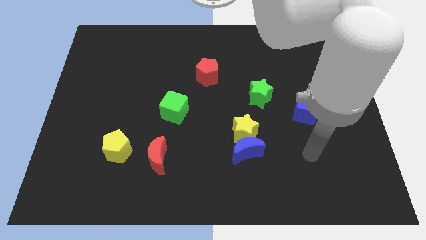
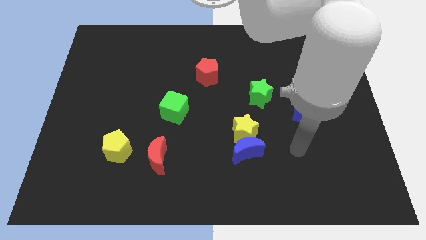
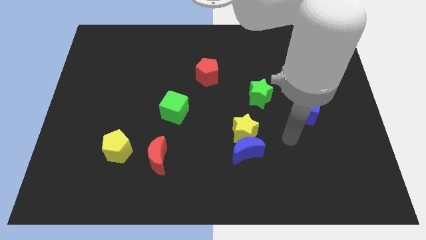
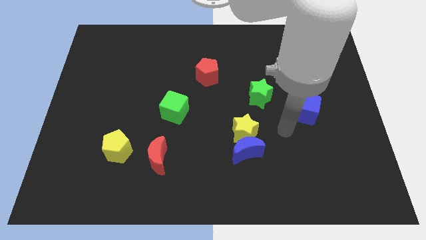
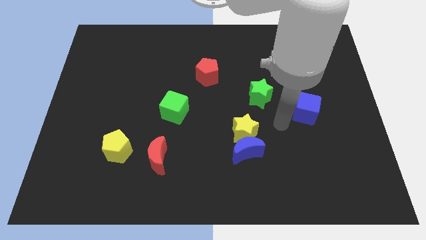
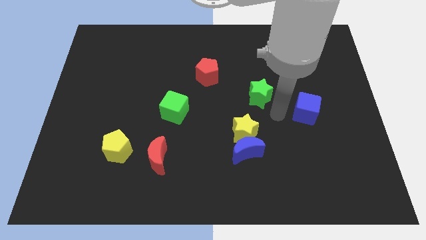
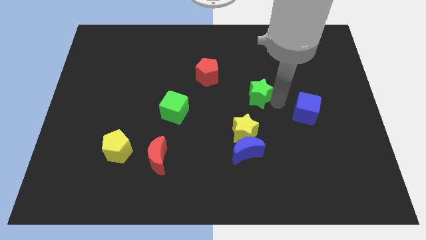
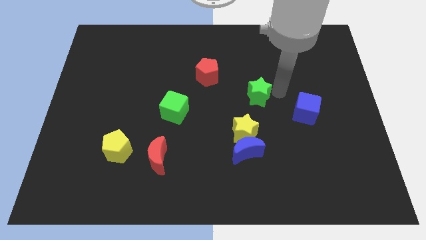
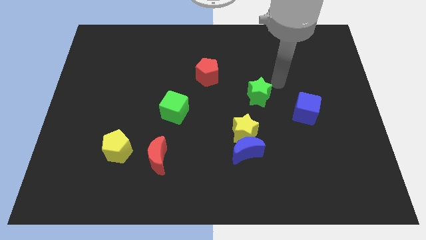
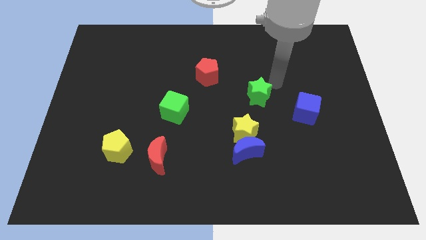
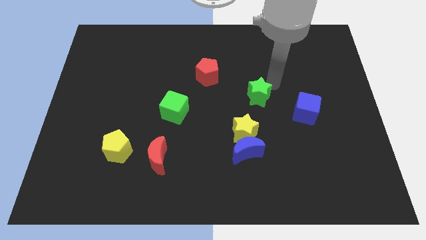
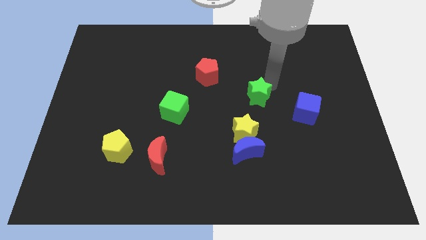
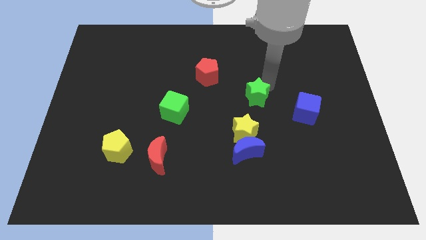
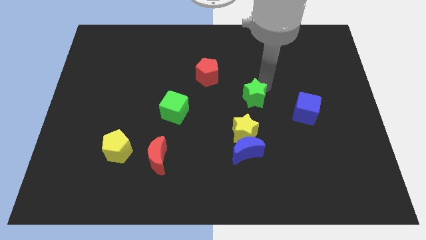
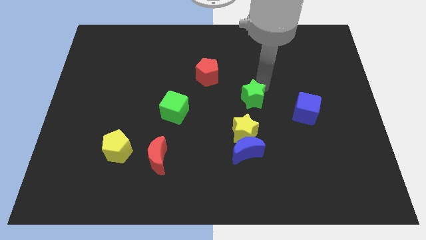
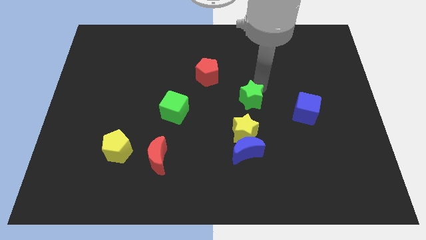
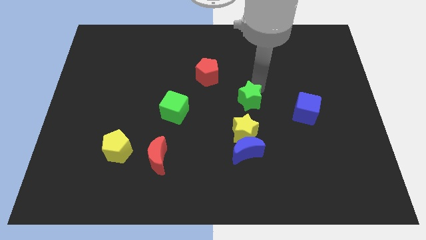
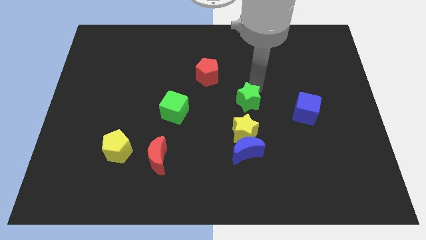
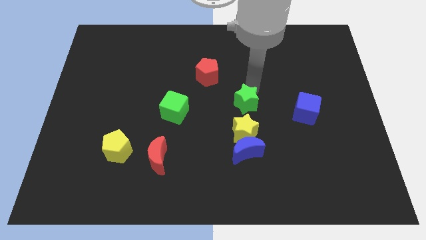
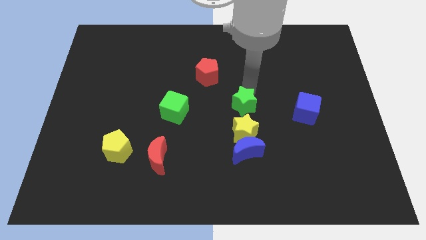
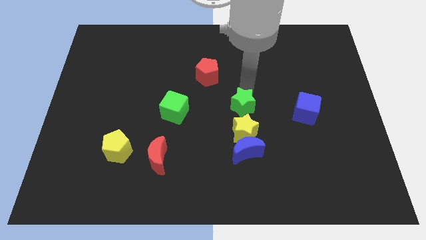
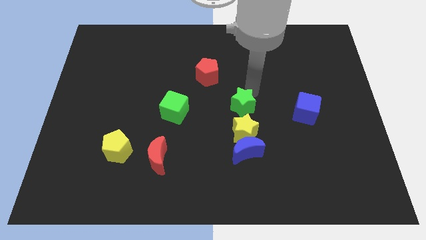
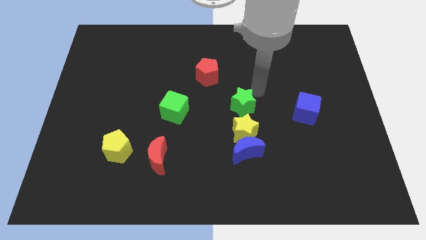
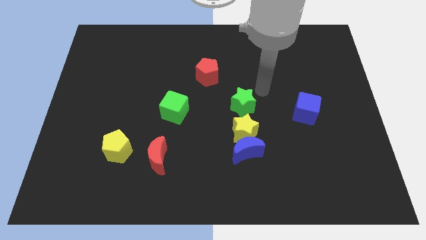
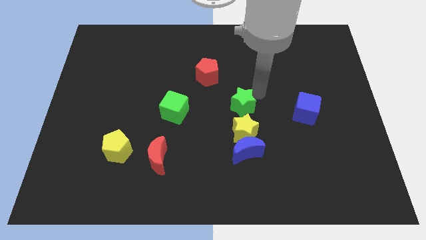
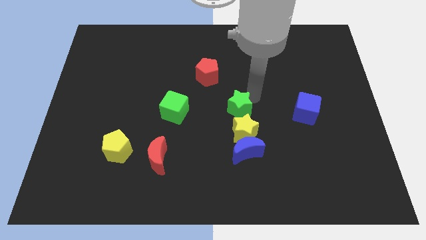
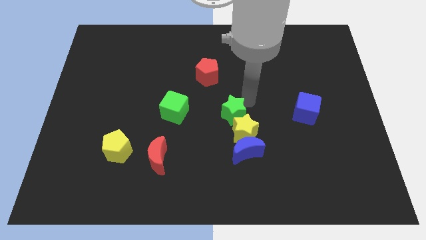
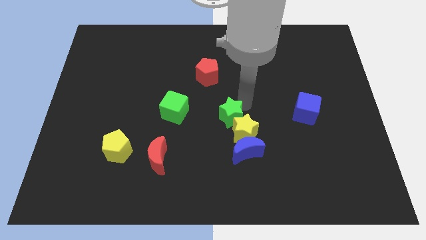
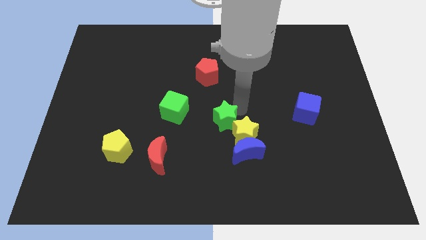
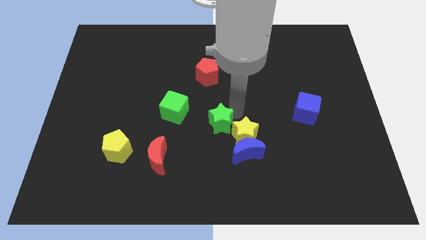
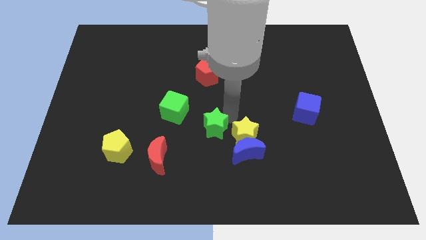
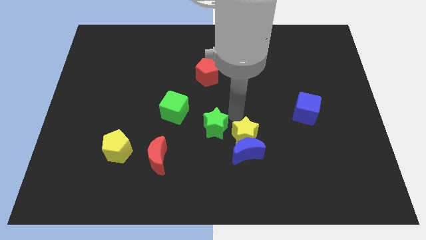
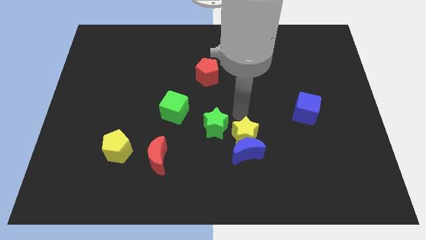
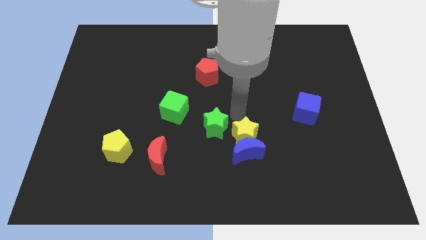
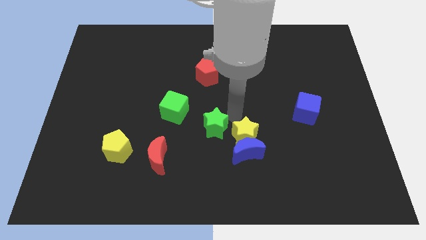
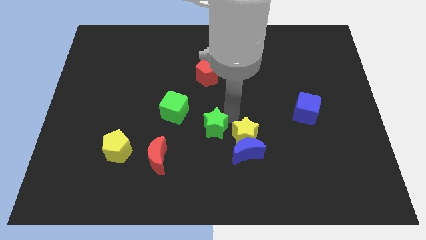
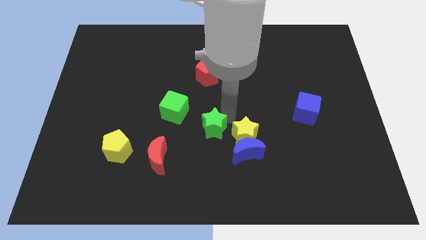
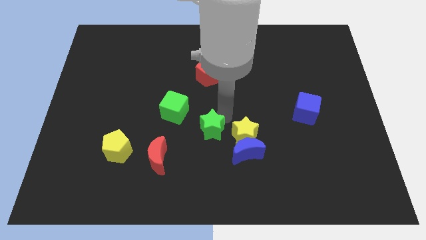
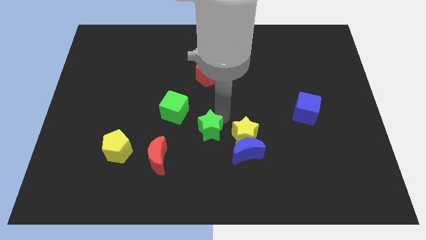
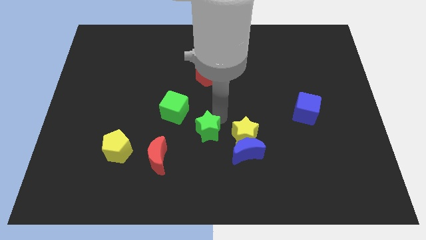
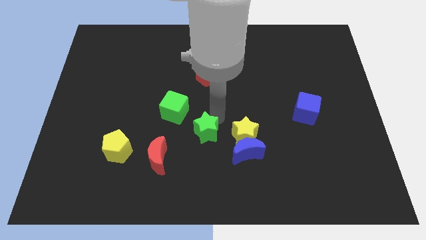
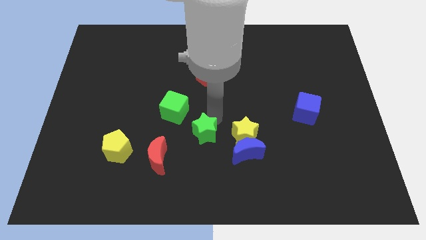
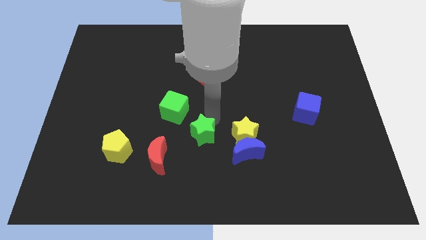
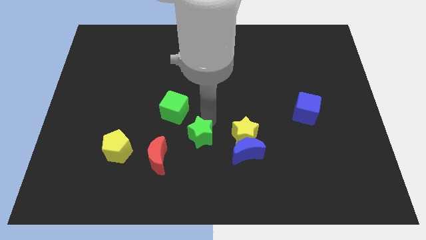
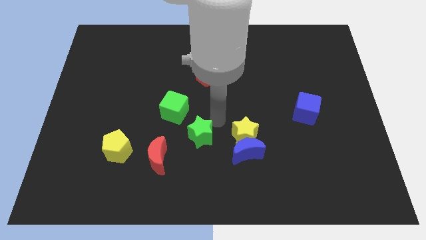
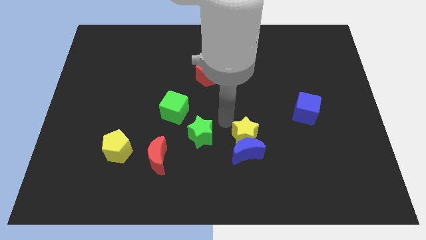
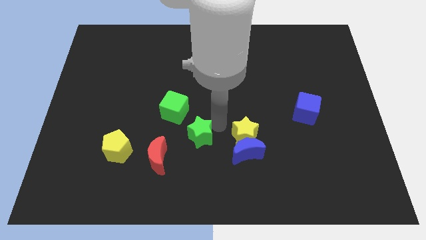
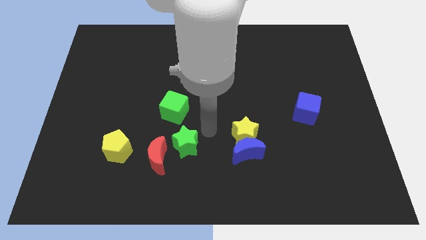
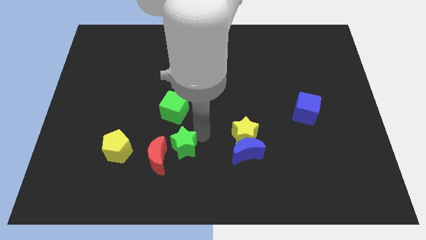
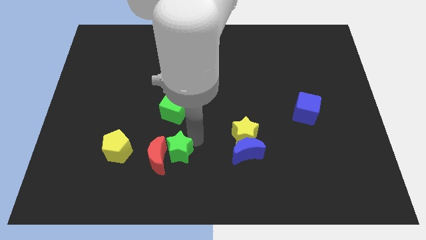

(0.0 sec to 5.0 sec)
slide the green star towards the red moon

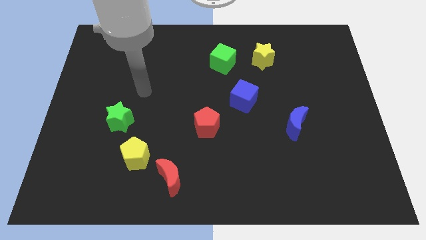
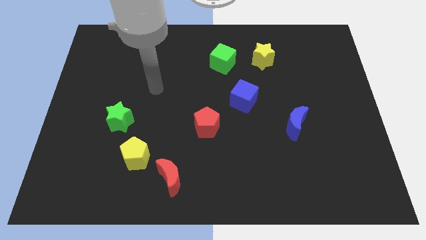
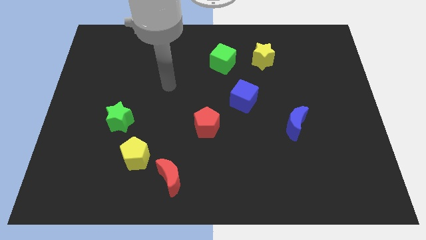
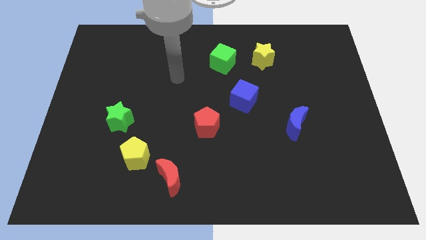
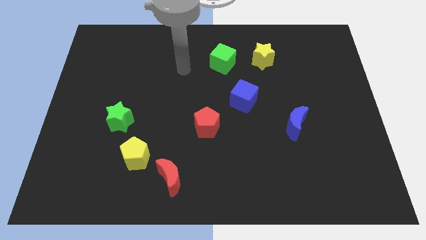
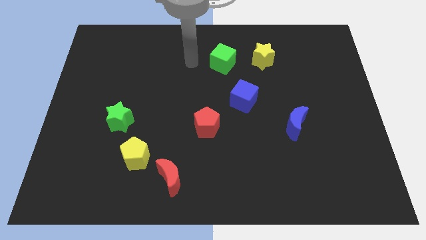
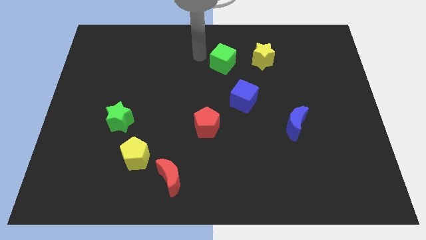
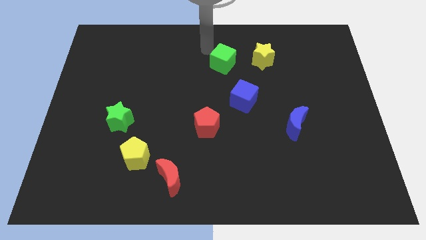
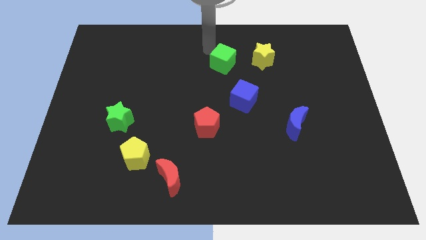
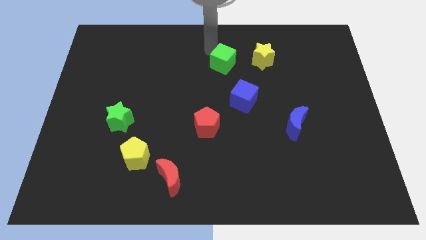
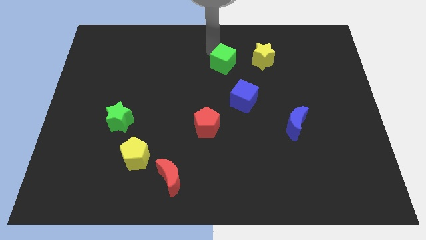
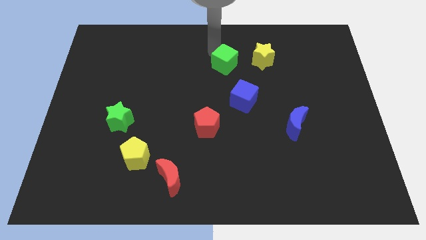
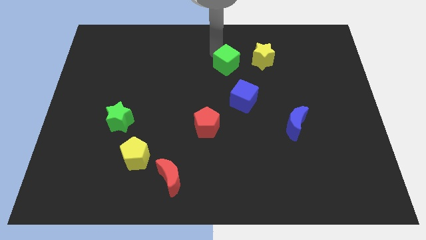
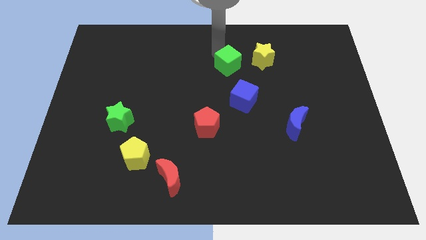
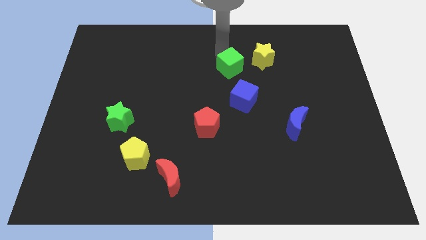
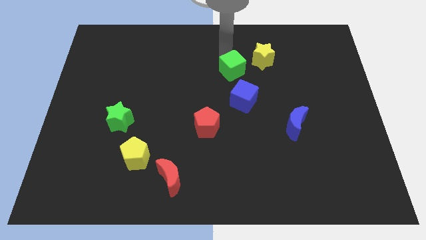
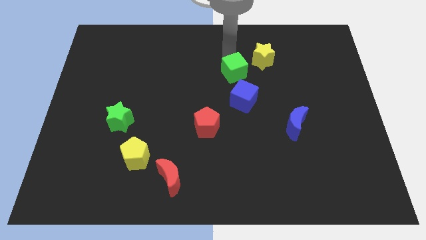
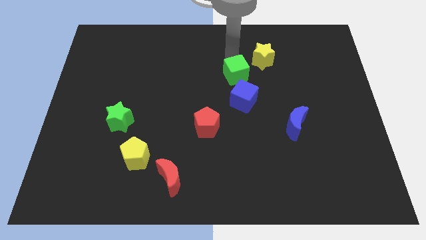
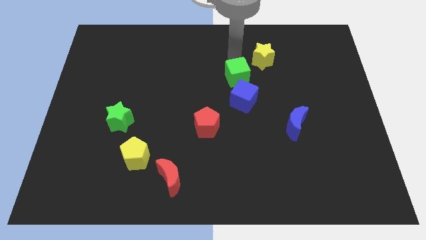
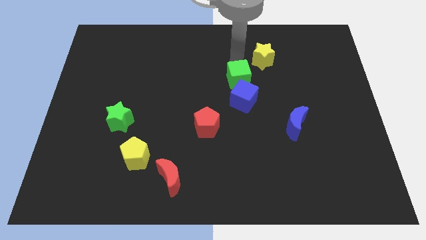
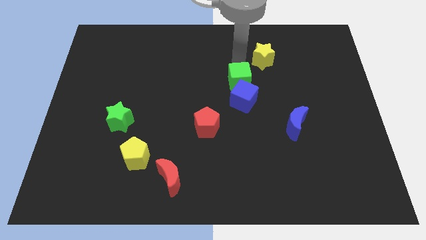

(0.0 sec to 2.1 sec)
slide the green cube towards the blue cube

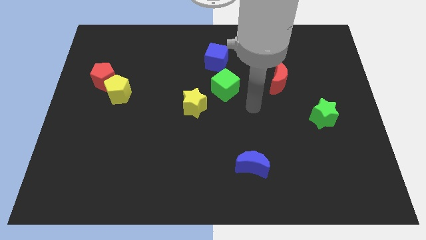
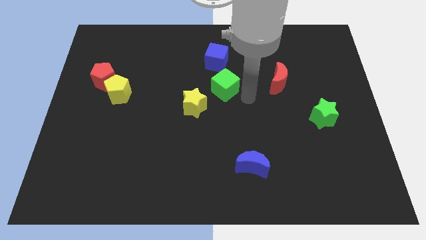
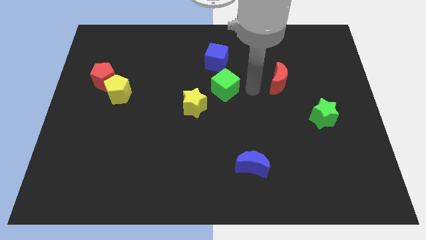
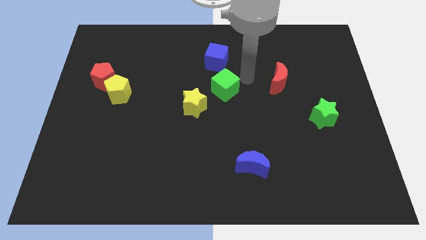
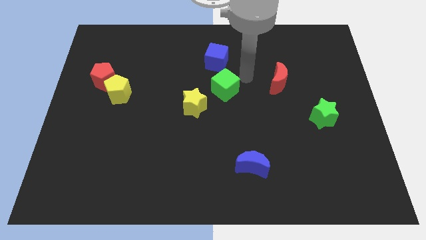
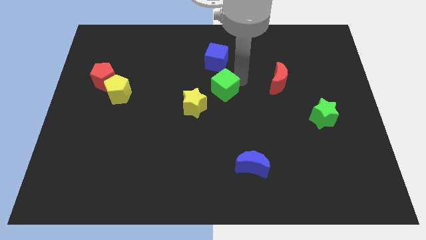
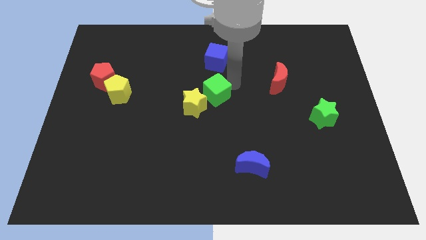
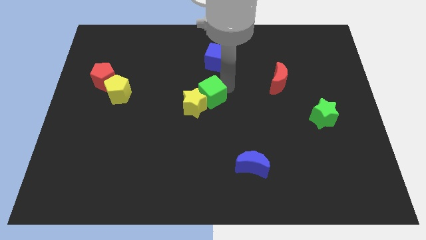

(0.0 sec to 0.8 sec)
put the green cube next to the yellow star

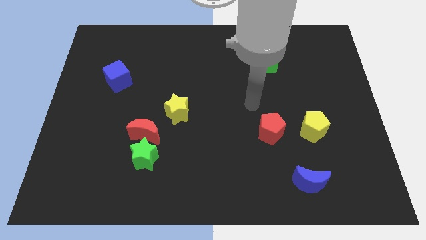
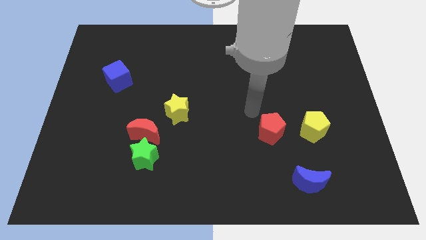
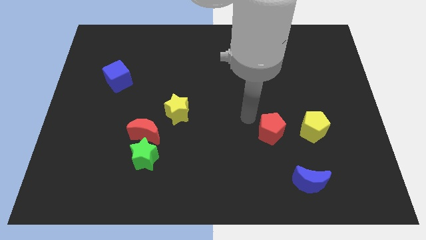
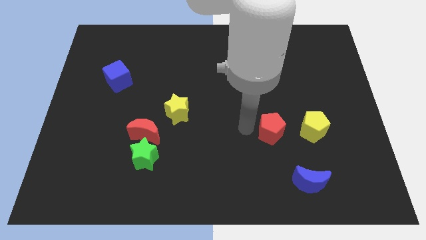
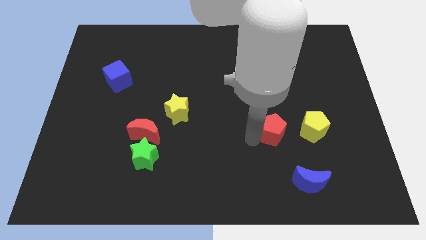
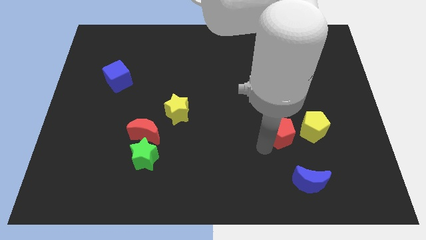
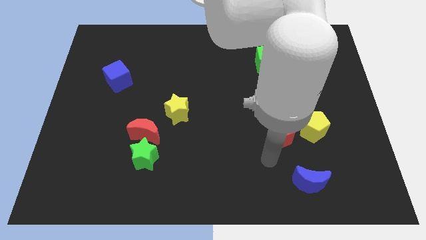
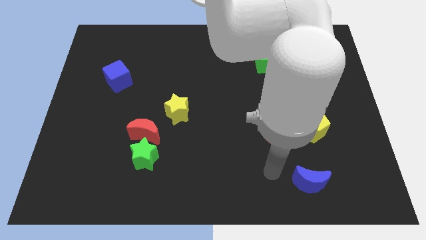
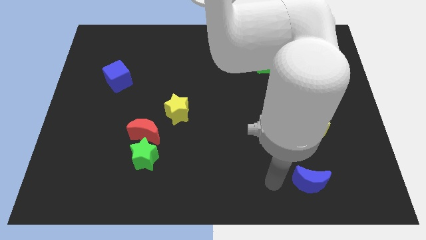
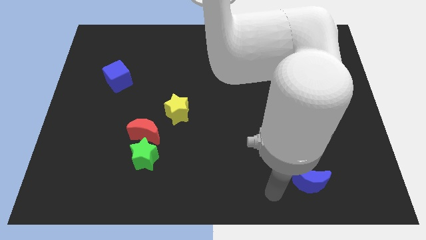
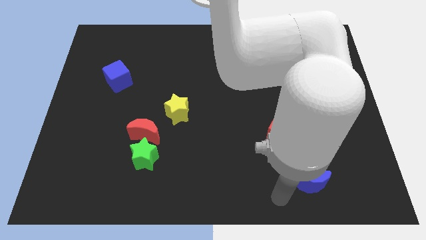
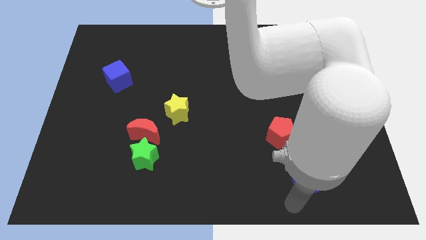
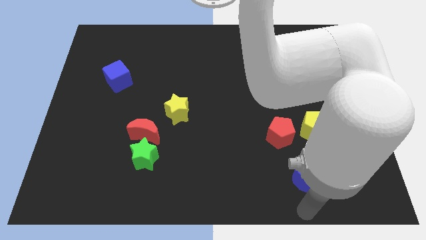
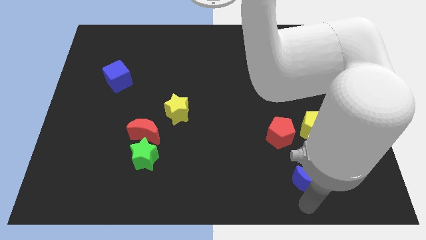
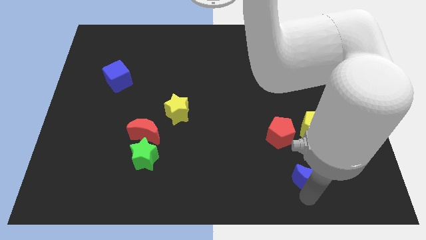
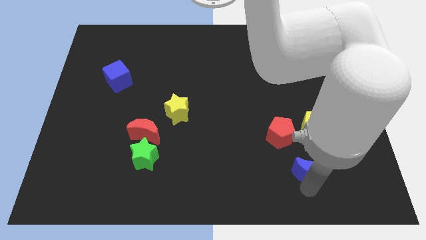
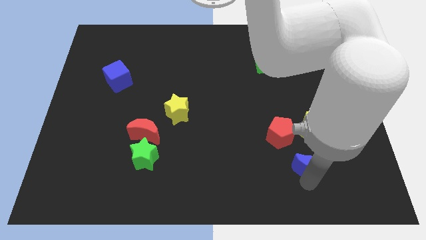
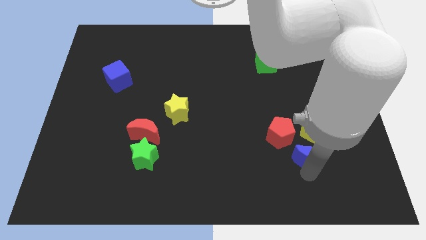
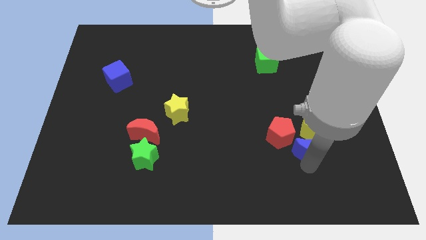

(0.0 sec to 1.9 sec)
slide the blue moon to the yellow pentagon
